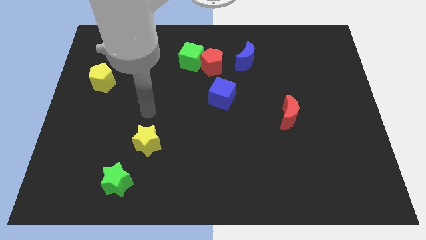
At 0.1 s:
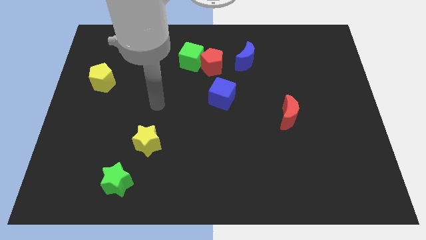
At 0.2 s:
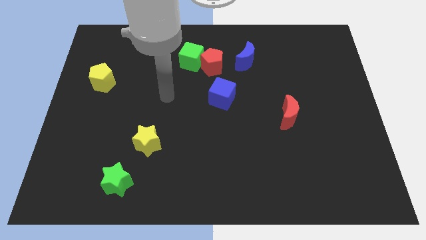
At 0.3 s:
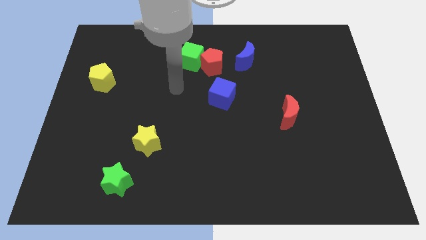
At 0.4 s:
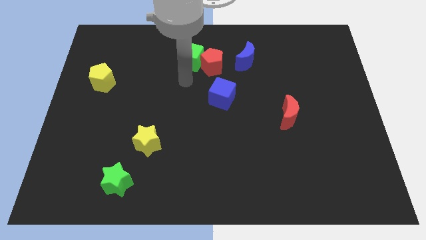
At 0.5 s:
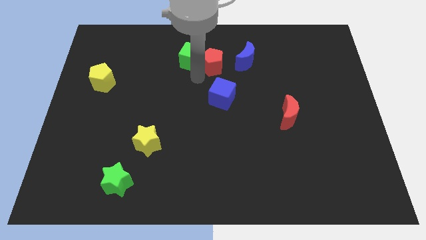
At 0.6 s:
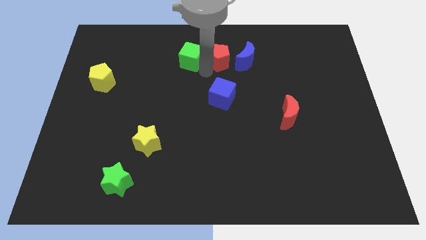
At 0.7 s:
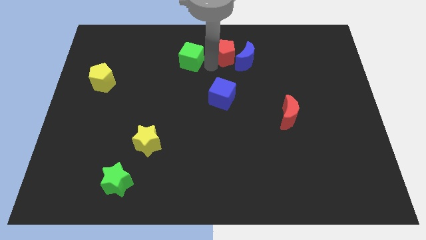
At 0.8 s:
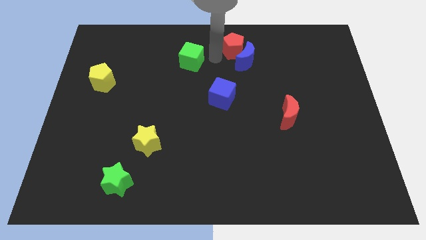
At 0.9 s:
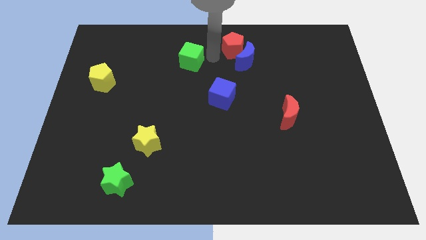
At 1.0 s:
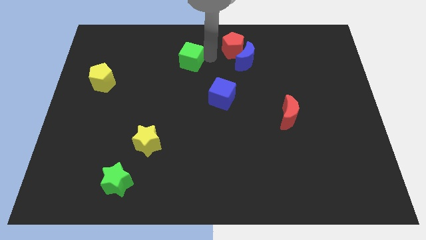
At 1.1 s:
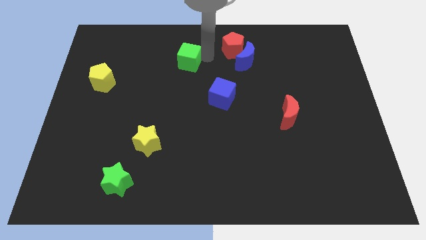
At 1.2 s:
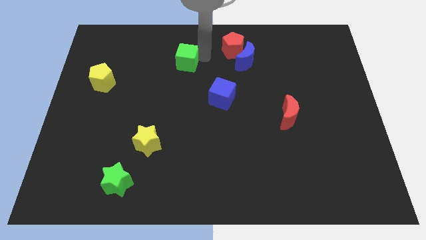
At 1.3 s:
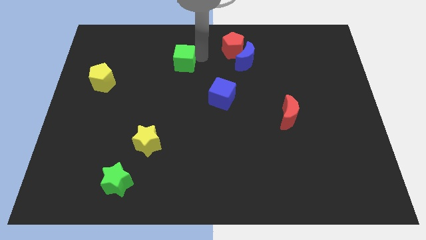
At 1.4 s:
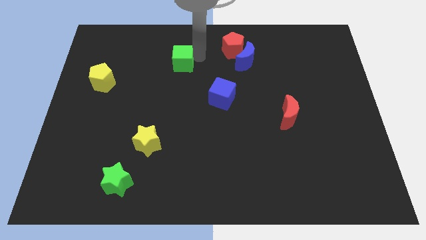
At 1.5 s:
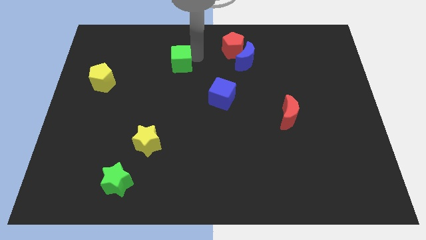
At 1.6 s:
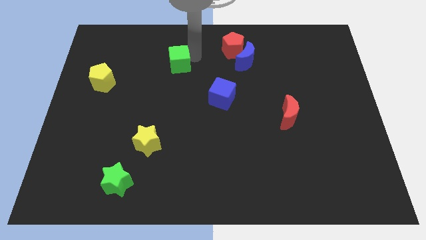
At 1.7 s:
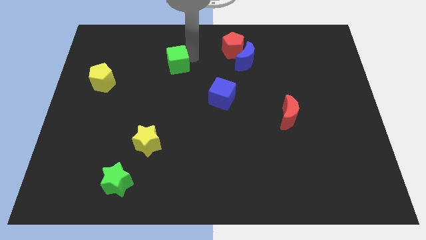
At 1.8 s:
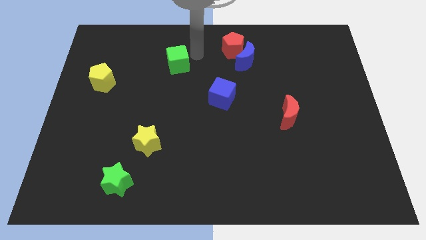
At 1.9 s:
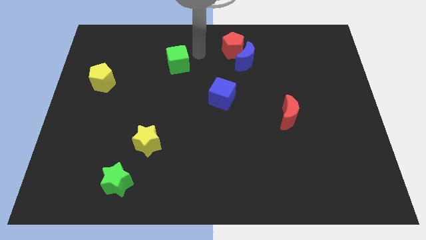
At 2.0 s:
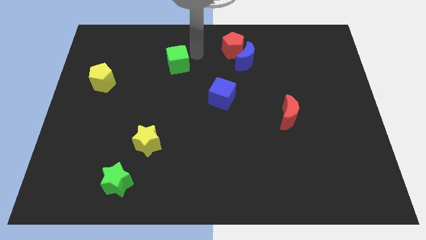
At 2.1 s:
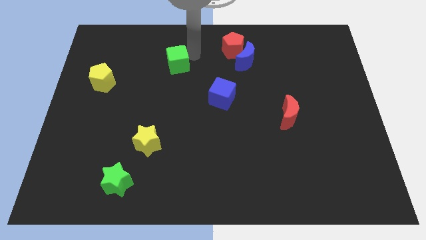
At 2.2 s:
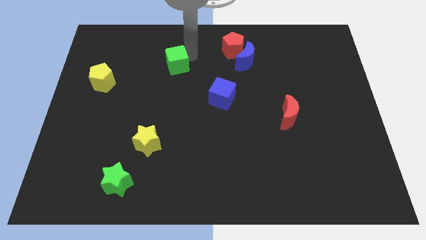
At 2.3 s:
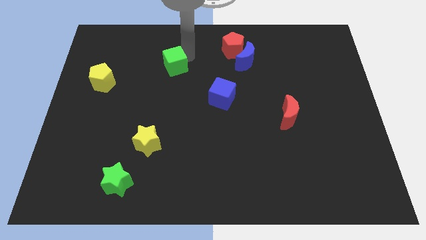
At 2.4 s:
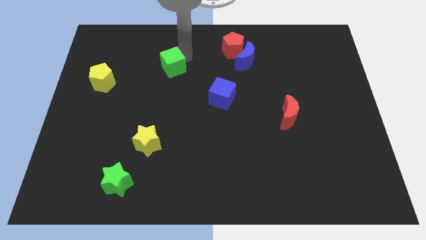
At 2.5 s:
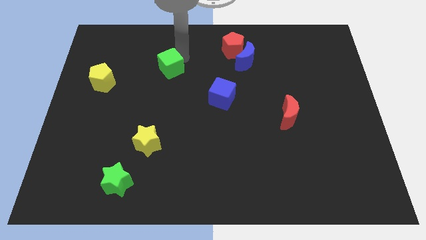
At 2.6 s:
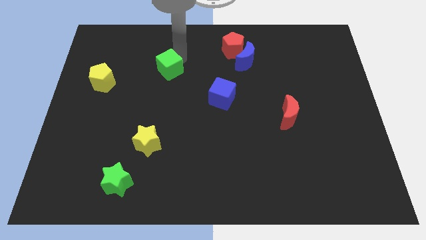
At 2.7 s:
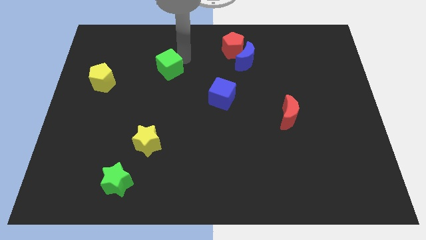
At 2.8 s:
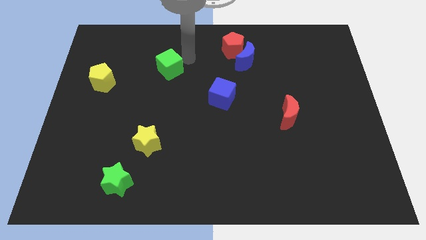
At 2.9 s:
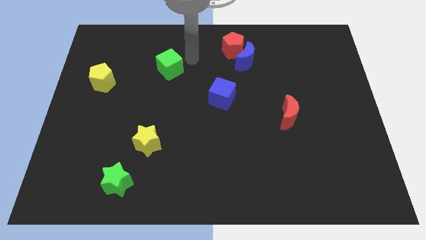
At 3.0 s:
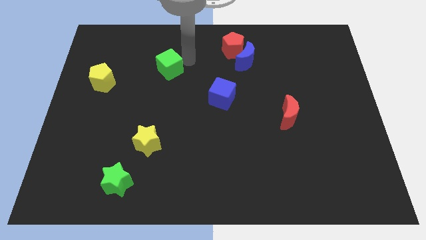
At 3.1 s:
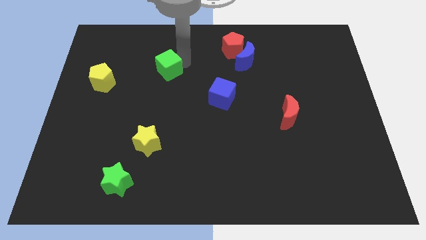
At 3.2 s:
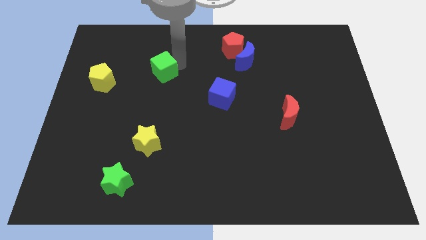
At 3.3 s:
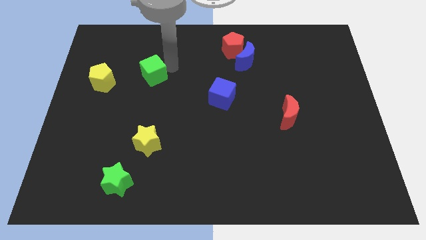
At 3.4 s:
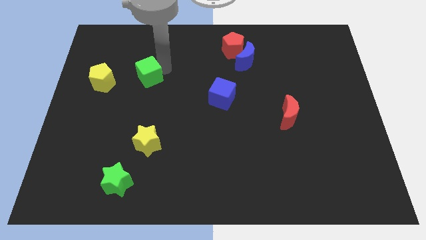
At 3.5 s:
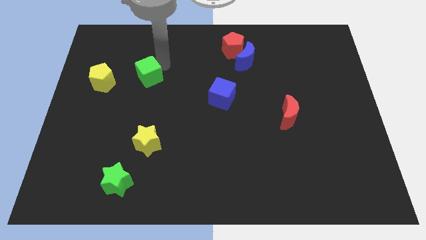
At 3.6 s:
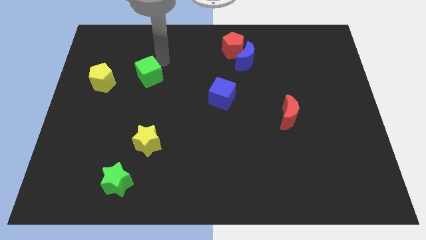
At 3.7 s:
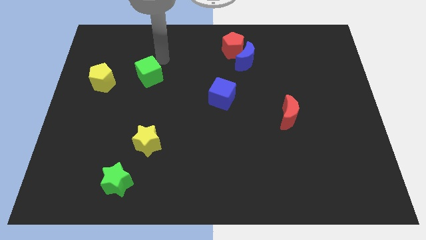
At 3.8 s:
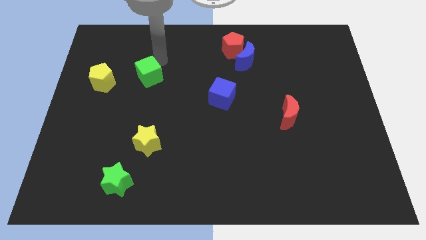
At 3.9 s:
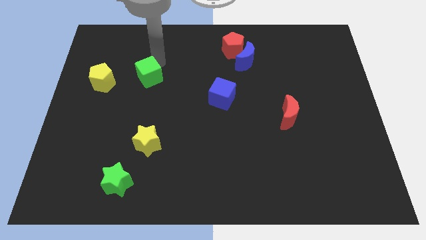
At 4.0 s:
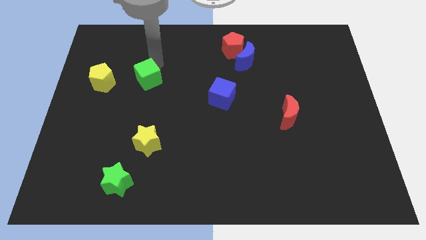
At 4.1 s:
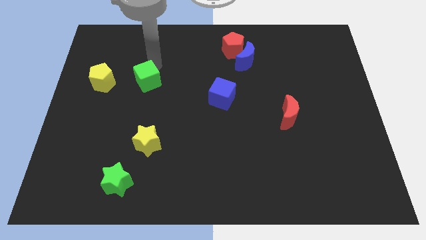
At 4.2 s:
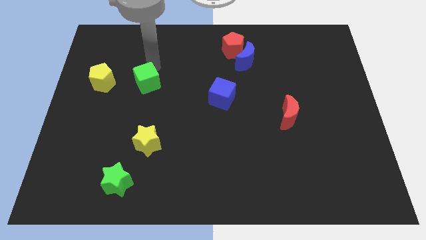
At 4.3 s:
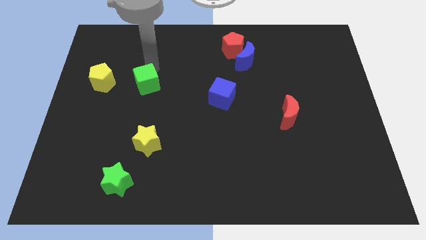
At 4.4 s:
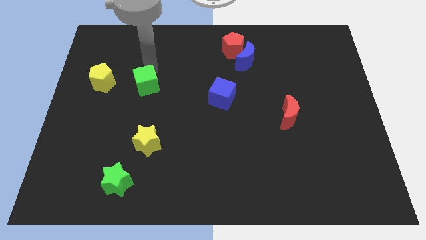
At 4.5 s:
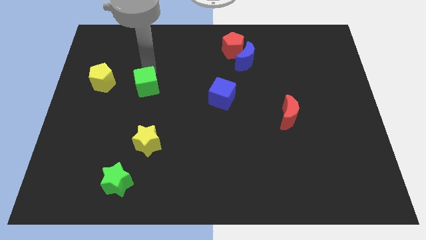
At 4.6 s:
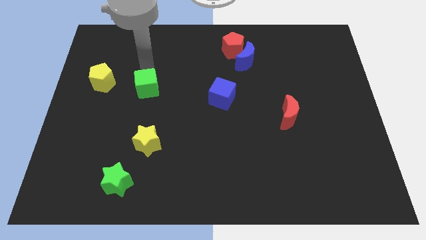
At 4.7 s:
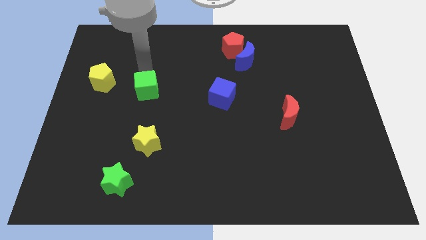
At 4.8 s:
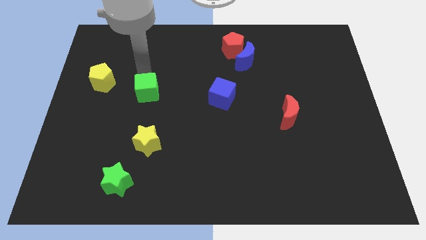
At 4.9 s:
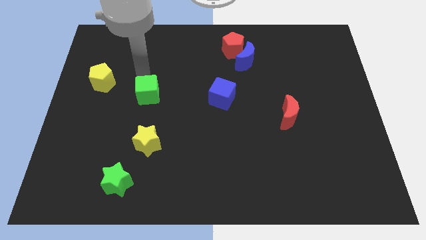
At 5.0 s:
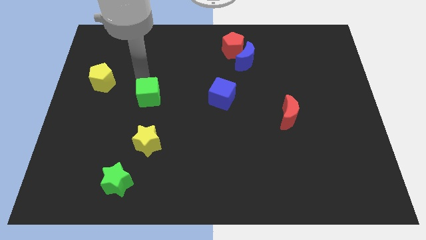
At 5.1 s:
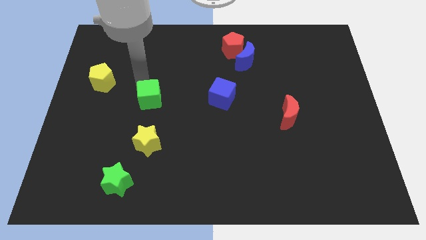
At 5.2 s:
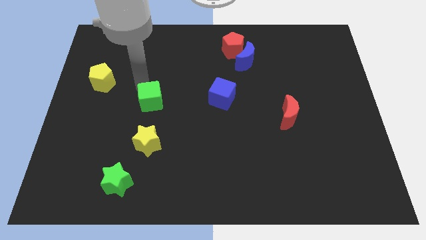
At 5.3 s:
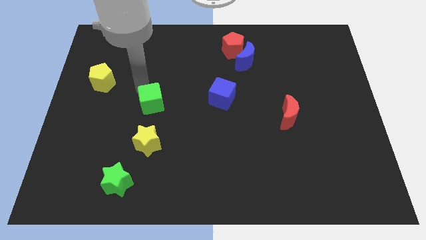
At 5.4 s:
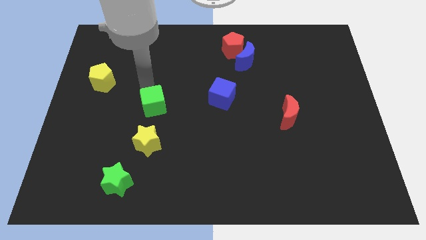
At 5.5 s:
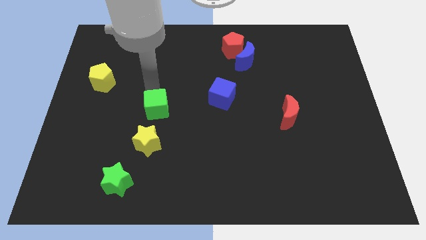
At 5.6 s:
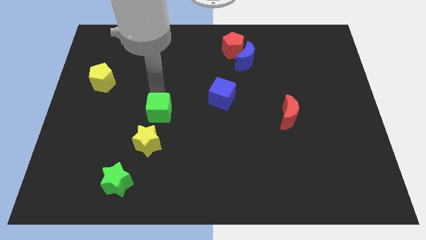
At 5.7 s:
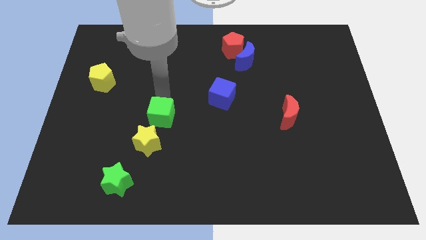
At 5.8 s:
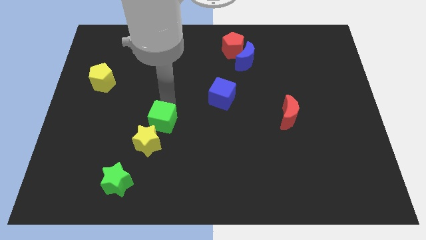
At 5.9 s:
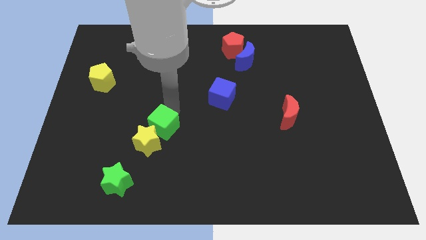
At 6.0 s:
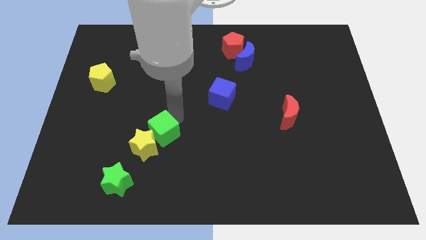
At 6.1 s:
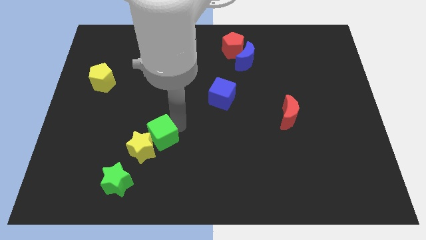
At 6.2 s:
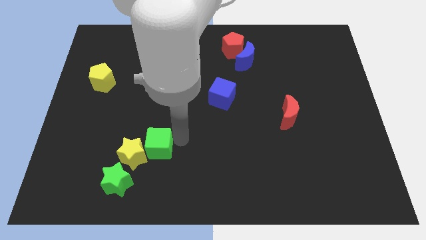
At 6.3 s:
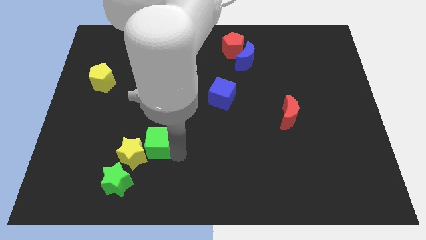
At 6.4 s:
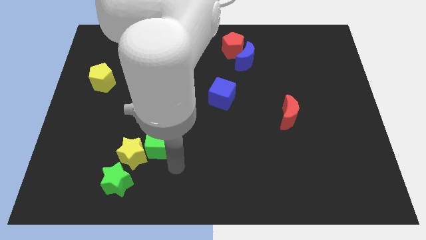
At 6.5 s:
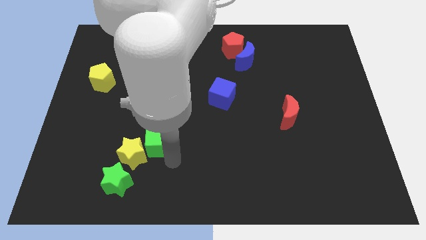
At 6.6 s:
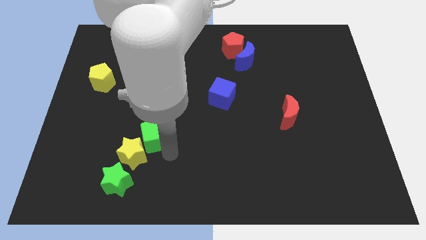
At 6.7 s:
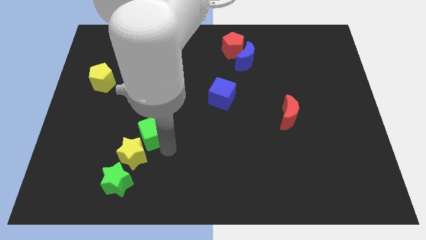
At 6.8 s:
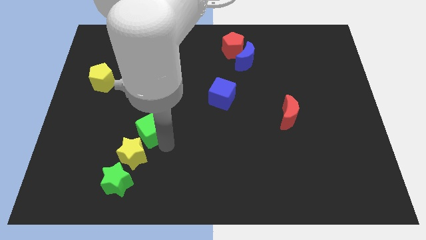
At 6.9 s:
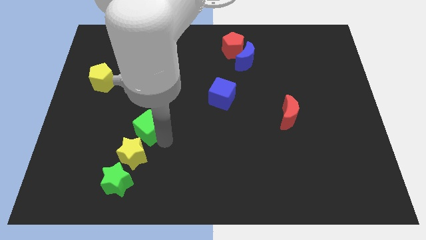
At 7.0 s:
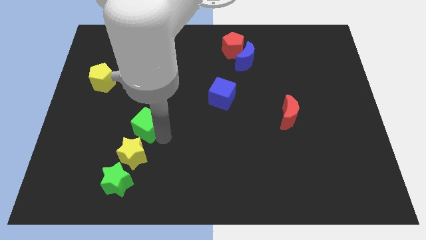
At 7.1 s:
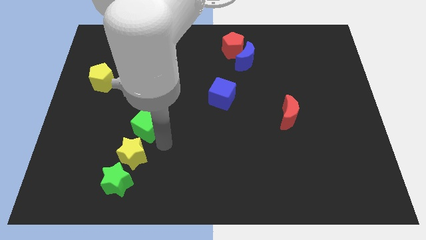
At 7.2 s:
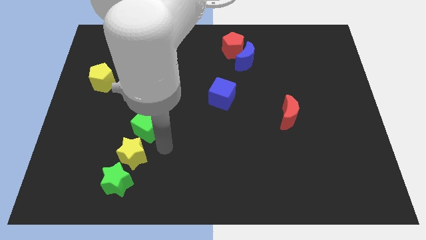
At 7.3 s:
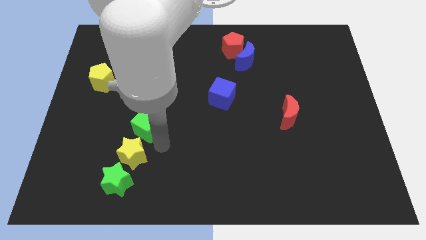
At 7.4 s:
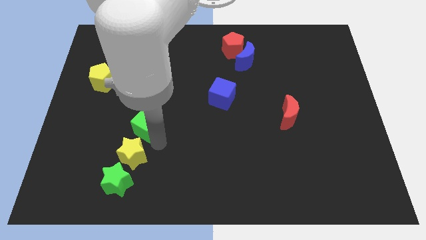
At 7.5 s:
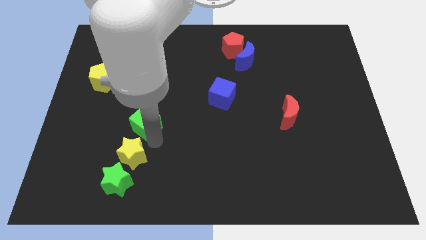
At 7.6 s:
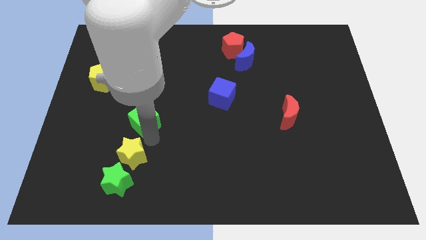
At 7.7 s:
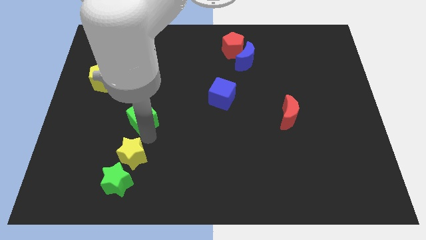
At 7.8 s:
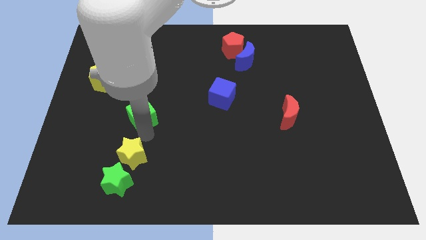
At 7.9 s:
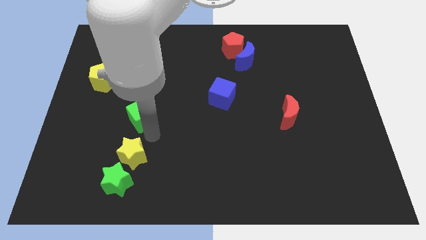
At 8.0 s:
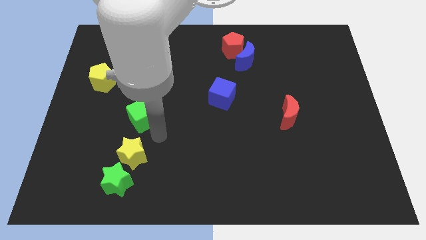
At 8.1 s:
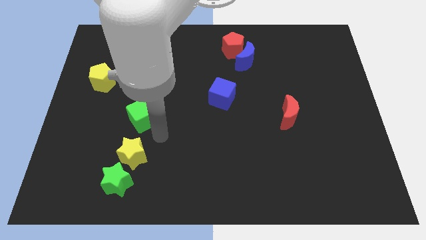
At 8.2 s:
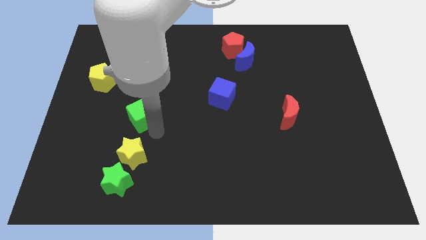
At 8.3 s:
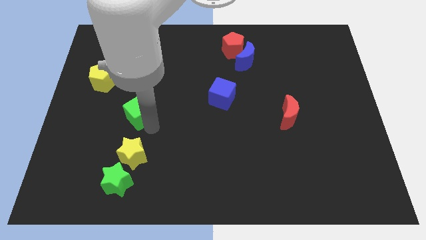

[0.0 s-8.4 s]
move the green cube downwards and to the left
